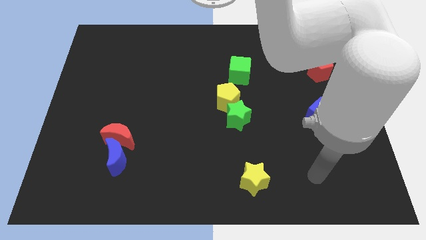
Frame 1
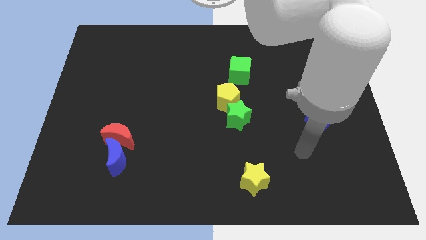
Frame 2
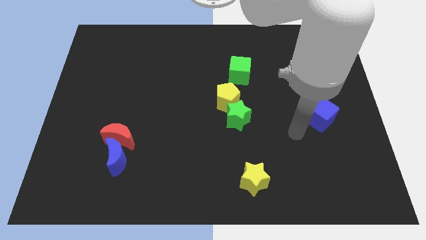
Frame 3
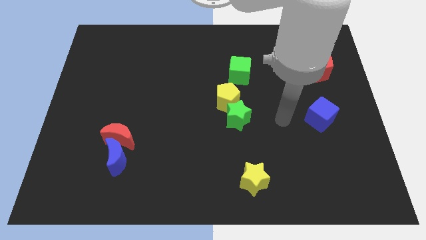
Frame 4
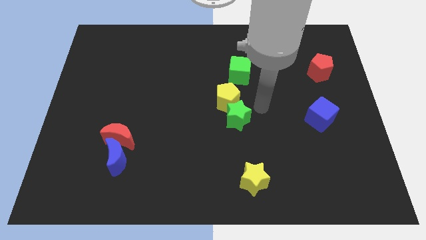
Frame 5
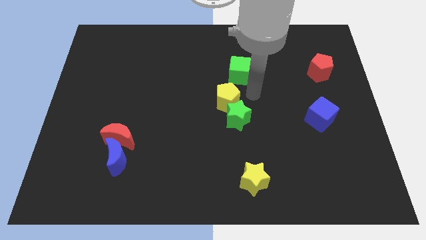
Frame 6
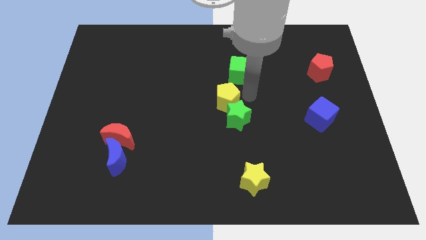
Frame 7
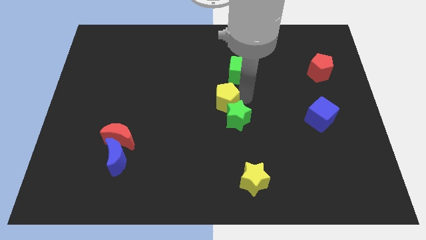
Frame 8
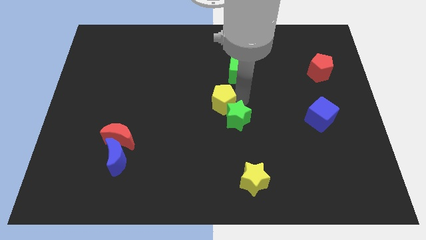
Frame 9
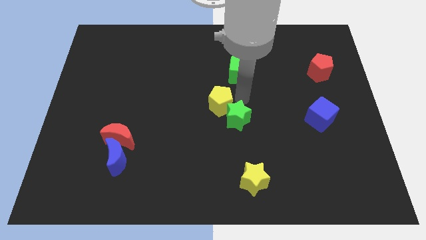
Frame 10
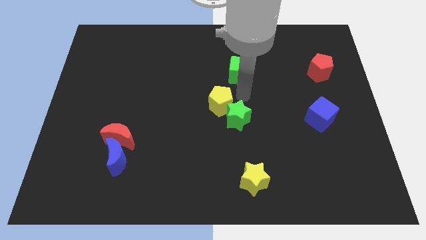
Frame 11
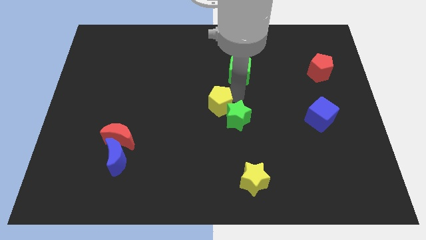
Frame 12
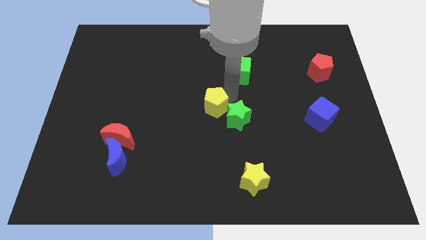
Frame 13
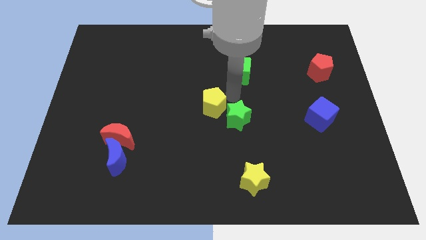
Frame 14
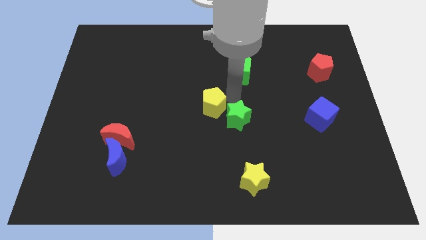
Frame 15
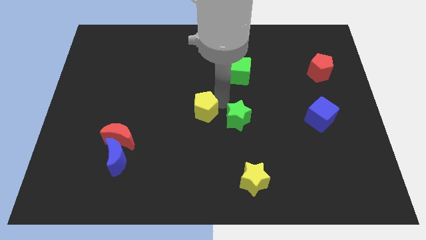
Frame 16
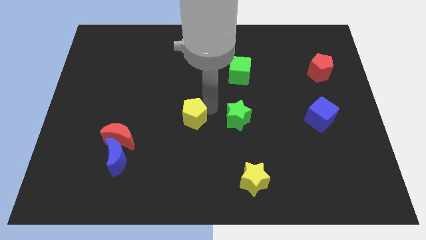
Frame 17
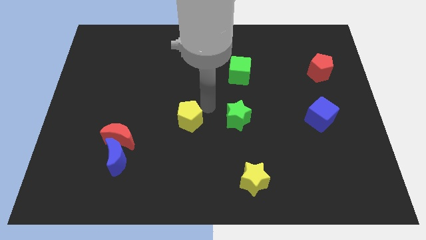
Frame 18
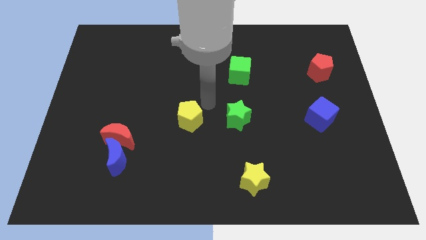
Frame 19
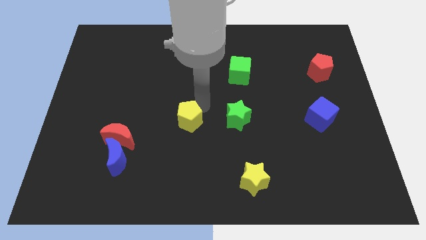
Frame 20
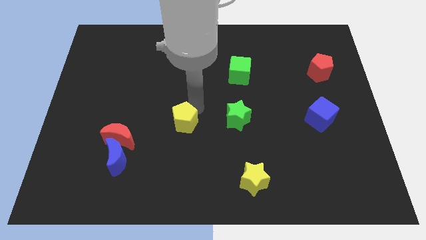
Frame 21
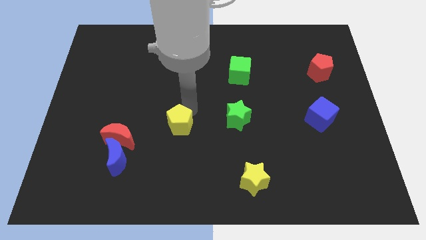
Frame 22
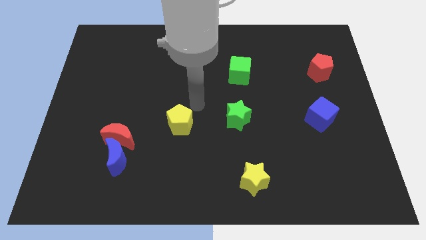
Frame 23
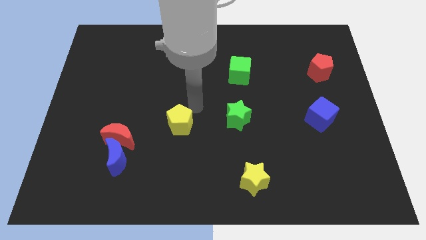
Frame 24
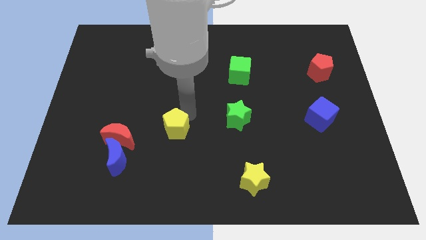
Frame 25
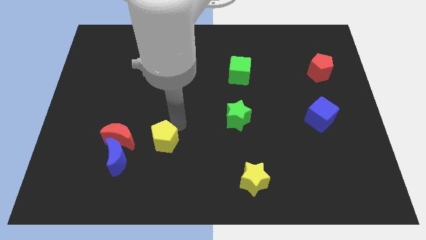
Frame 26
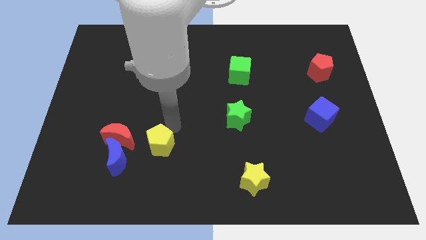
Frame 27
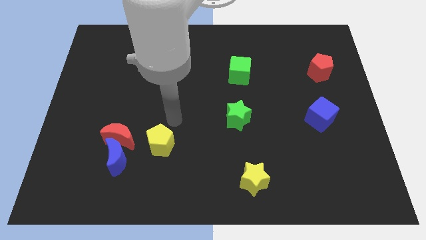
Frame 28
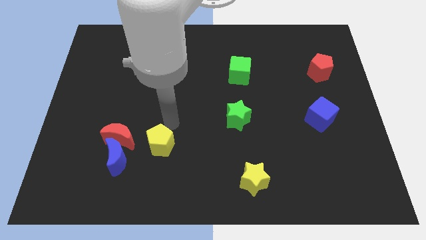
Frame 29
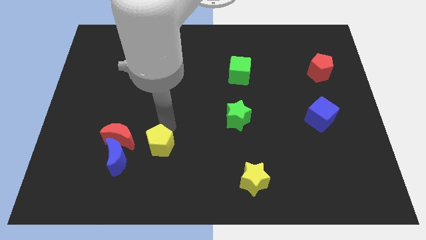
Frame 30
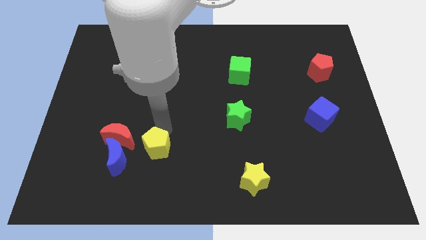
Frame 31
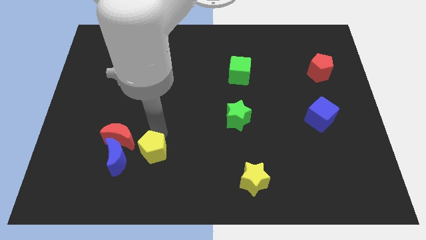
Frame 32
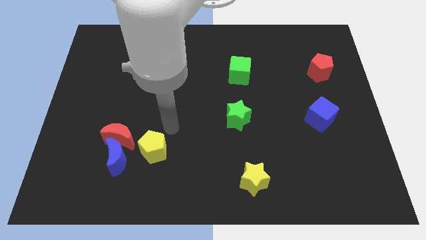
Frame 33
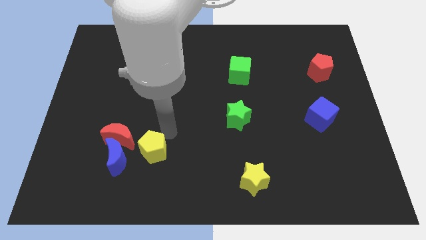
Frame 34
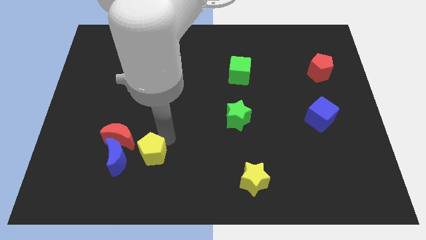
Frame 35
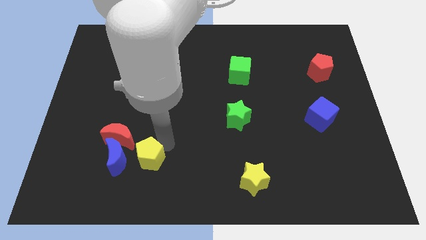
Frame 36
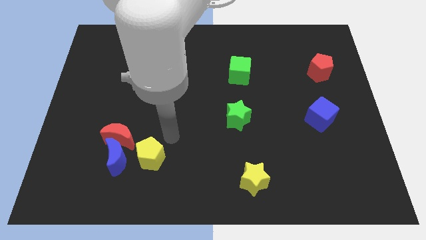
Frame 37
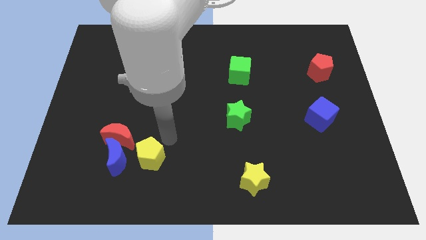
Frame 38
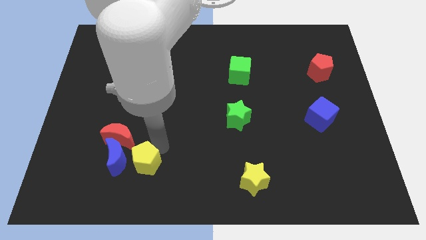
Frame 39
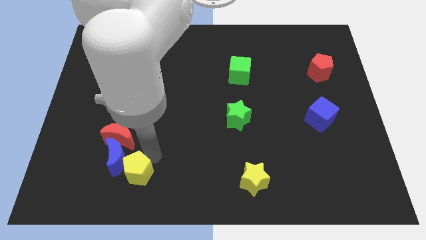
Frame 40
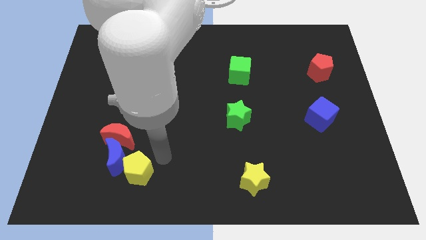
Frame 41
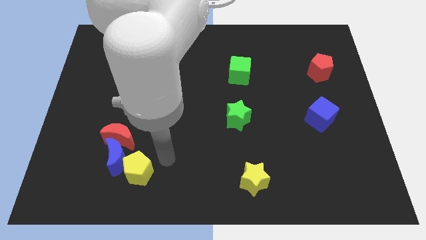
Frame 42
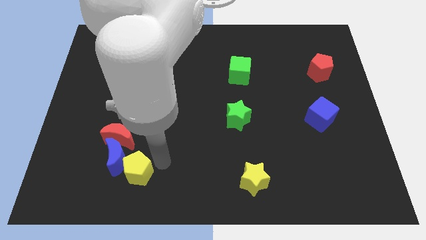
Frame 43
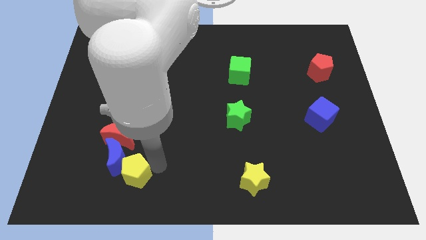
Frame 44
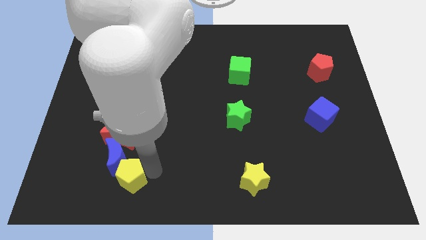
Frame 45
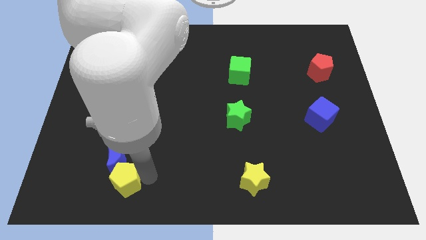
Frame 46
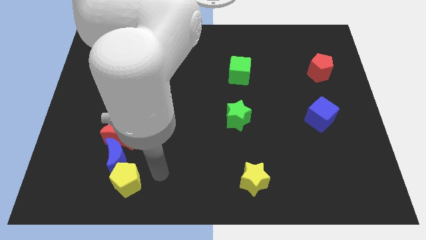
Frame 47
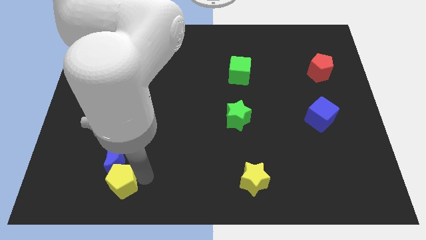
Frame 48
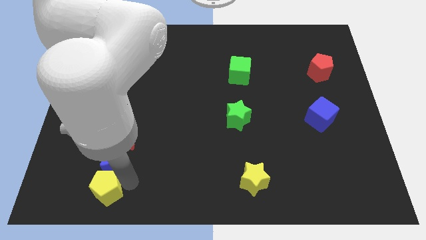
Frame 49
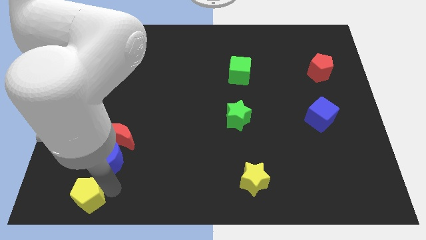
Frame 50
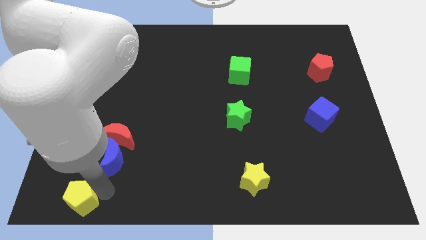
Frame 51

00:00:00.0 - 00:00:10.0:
move the yellow pentagon to the bottom left corner

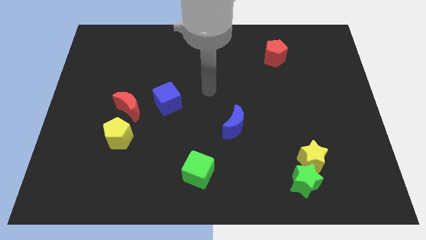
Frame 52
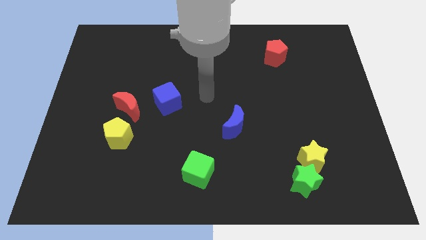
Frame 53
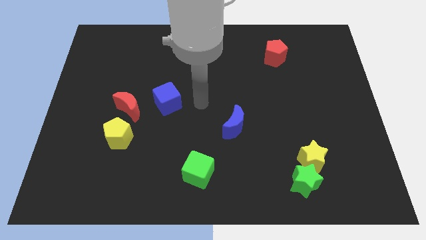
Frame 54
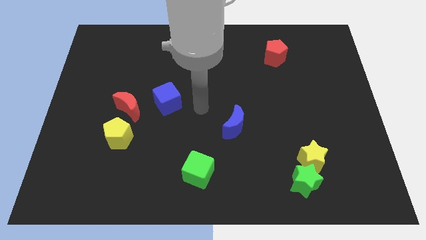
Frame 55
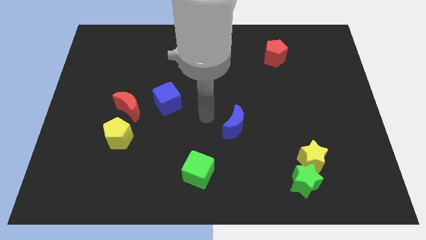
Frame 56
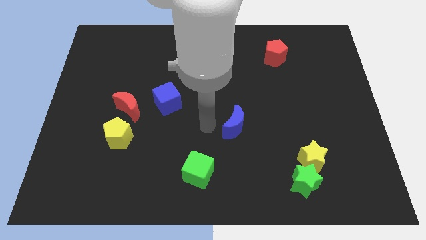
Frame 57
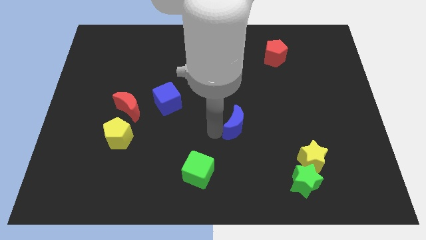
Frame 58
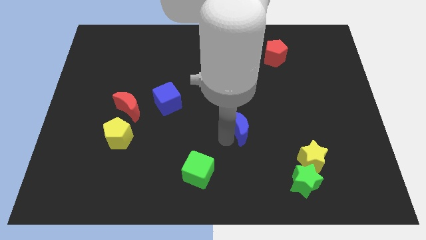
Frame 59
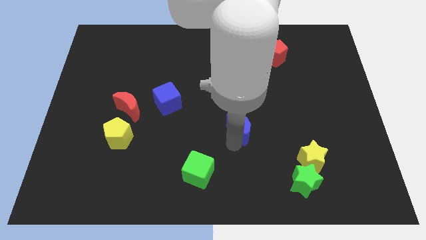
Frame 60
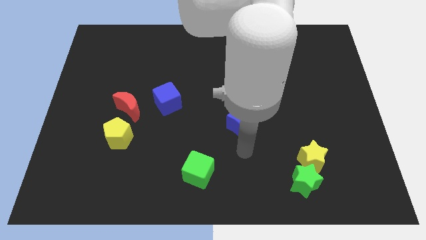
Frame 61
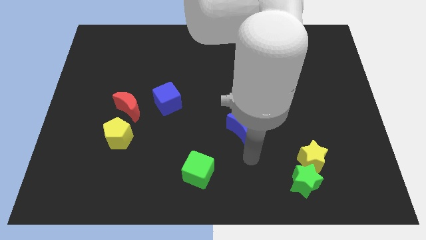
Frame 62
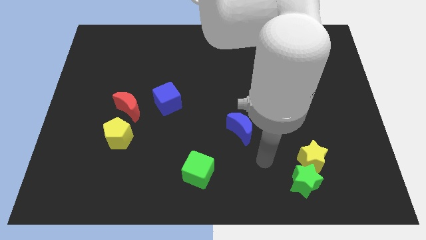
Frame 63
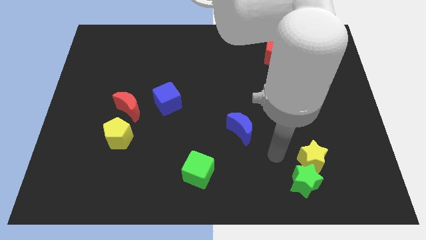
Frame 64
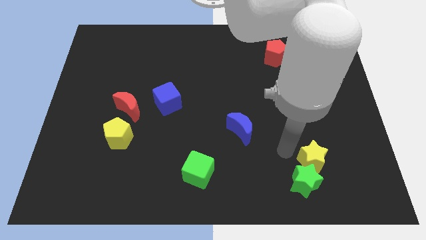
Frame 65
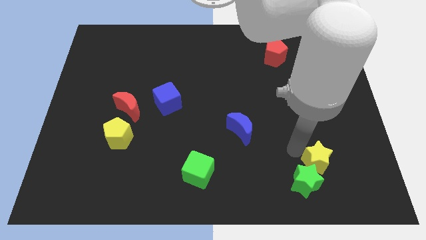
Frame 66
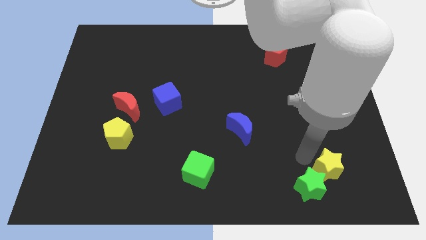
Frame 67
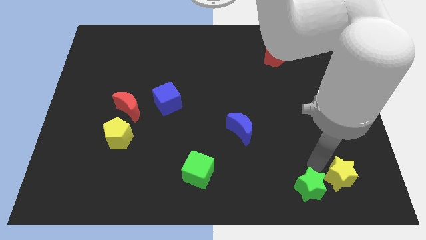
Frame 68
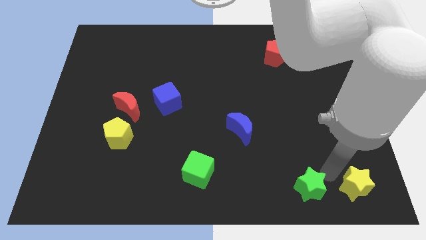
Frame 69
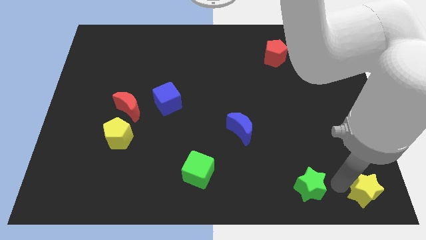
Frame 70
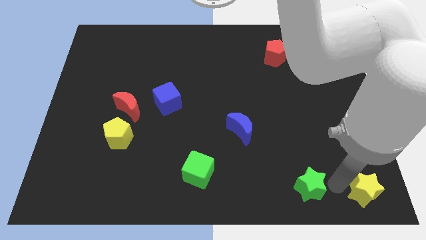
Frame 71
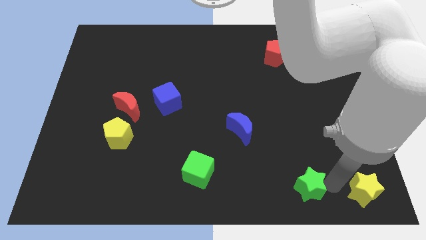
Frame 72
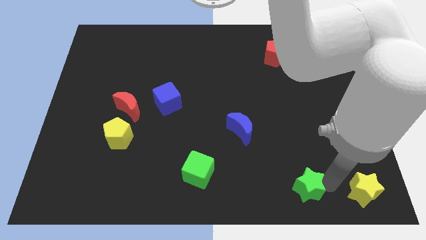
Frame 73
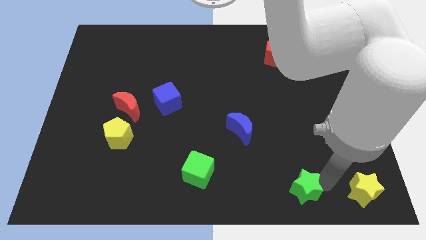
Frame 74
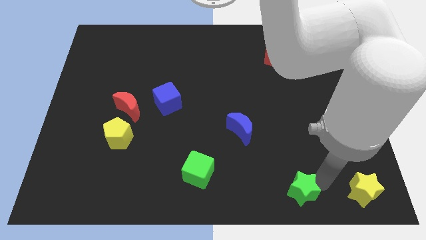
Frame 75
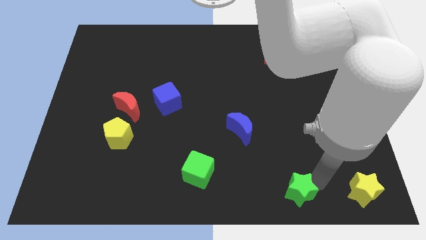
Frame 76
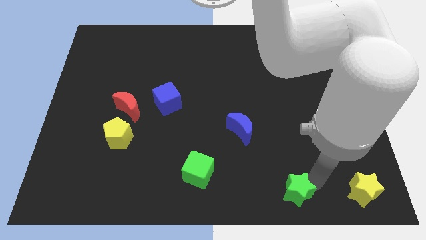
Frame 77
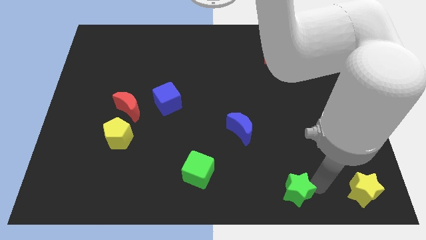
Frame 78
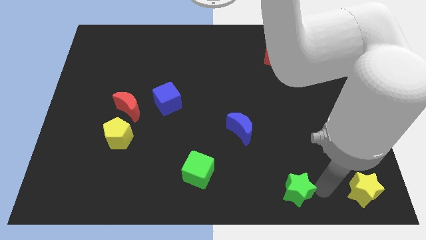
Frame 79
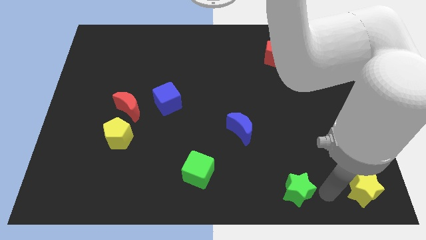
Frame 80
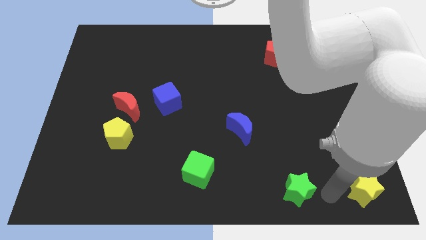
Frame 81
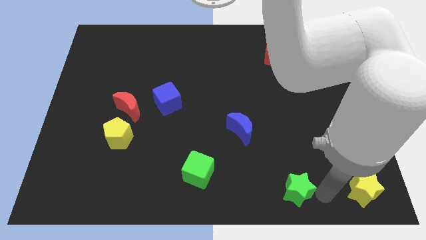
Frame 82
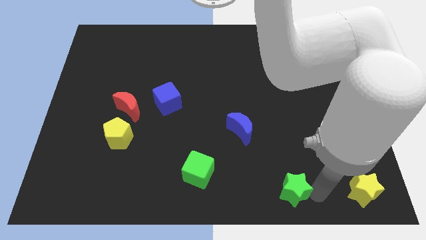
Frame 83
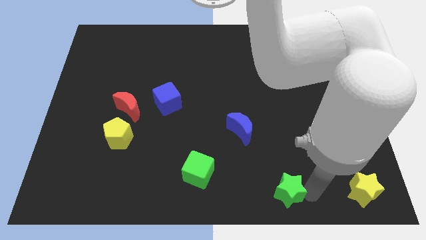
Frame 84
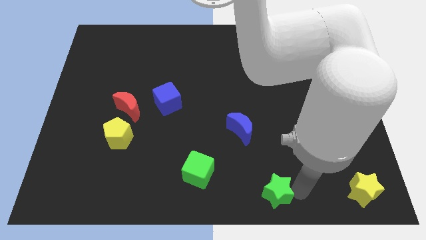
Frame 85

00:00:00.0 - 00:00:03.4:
push the green star to the bottom side
